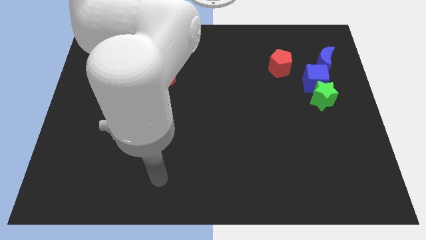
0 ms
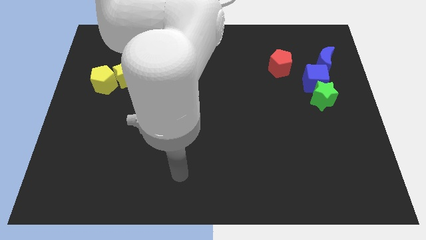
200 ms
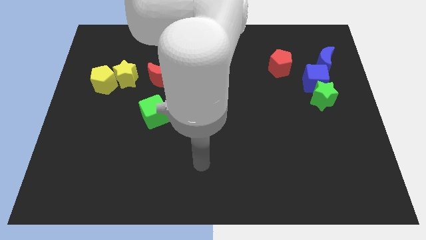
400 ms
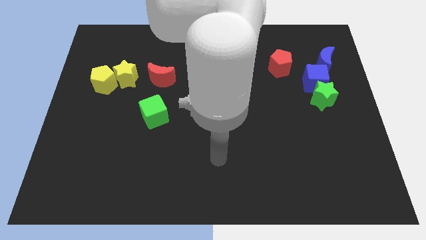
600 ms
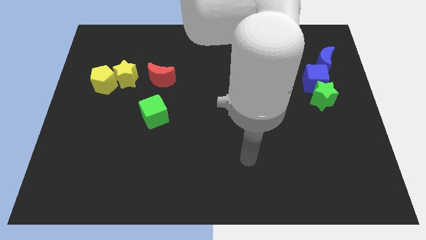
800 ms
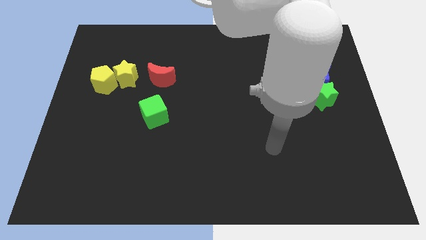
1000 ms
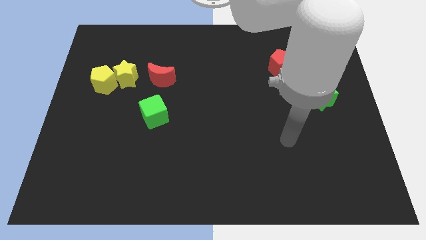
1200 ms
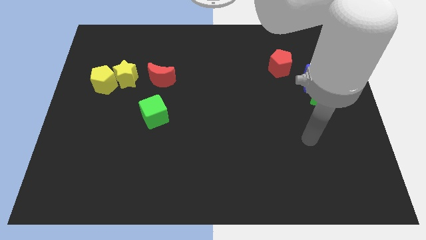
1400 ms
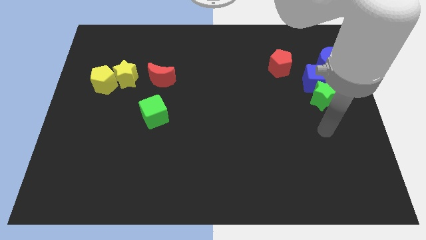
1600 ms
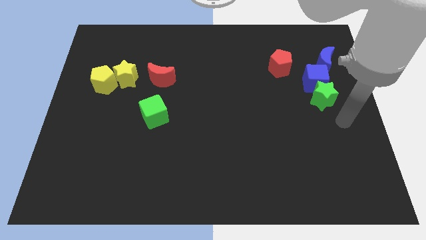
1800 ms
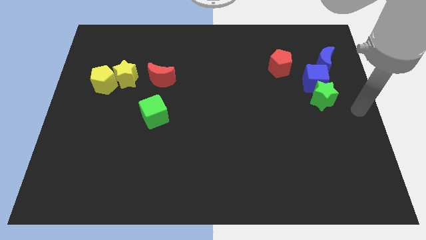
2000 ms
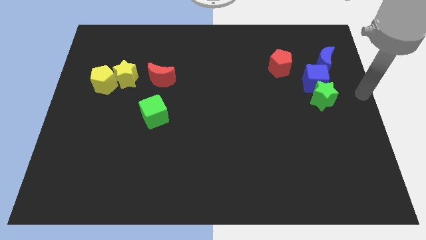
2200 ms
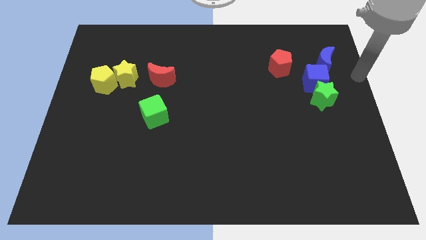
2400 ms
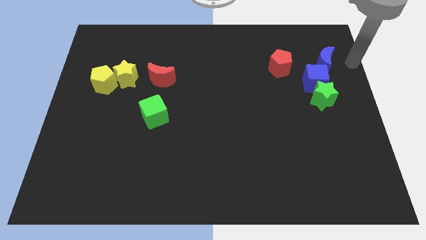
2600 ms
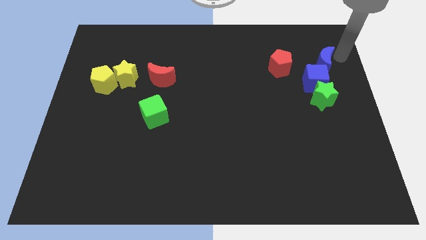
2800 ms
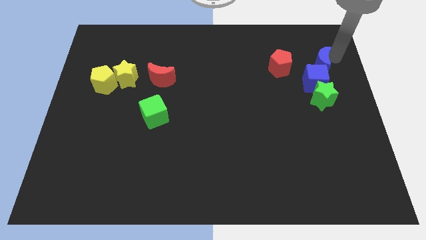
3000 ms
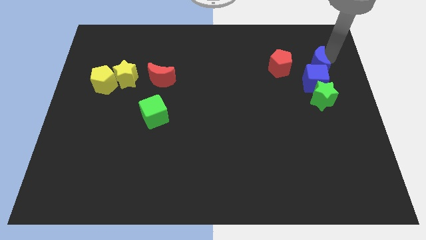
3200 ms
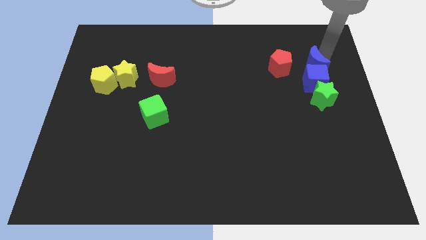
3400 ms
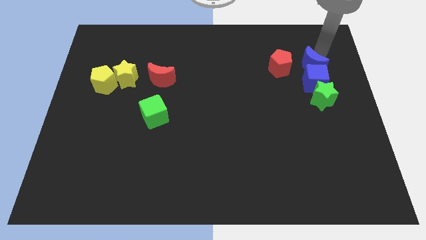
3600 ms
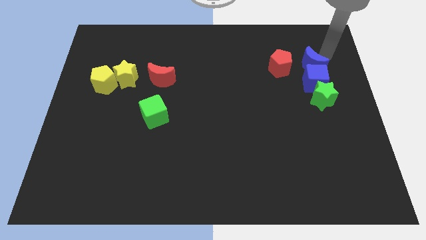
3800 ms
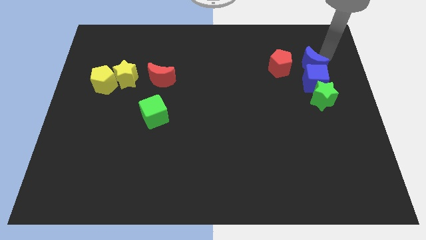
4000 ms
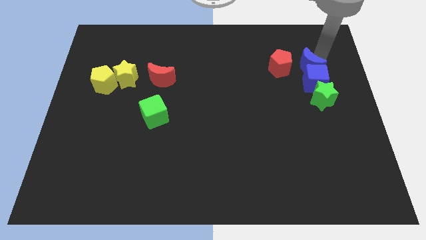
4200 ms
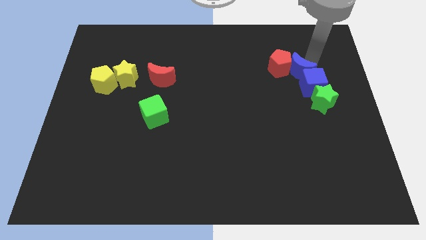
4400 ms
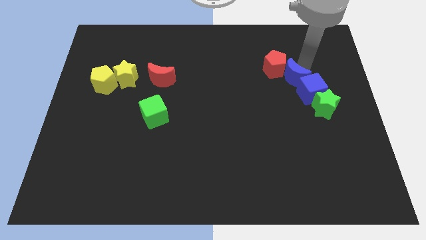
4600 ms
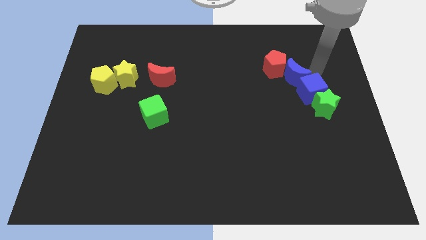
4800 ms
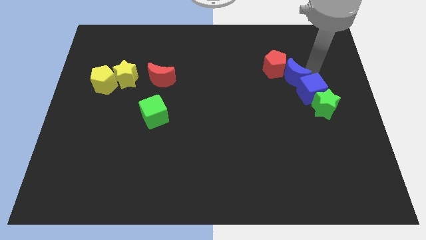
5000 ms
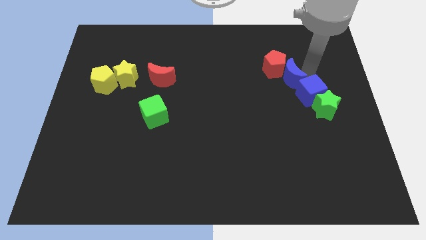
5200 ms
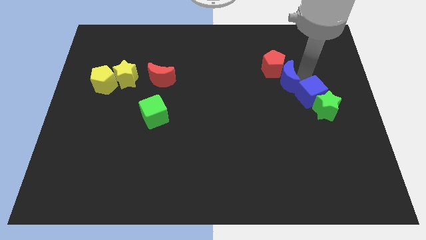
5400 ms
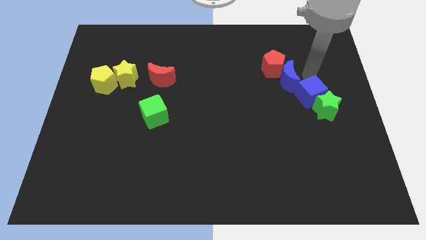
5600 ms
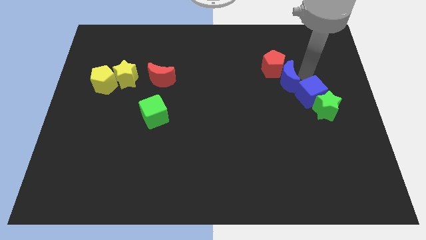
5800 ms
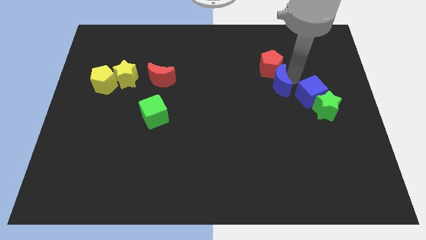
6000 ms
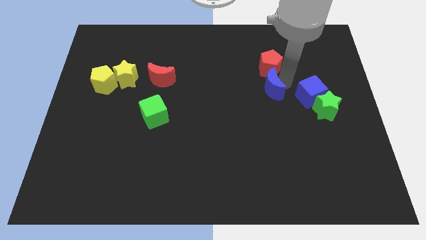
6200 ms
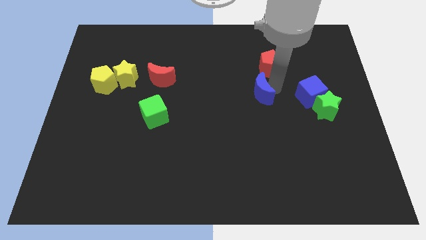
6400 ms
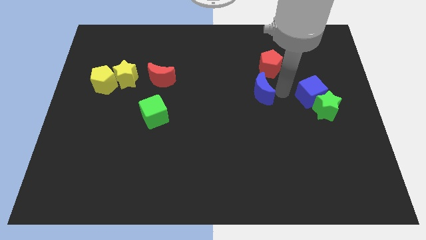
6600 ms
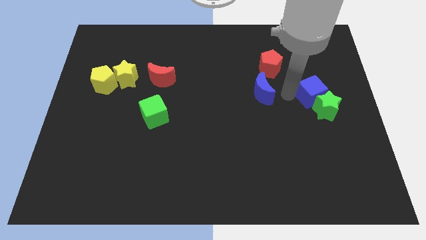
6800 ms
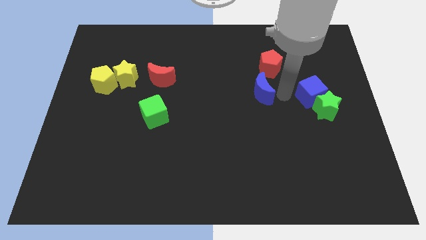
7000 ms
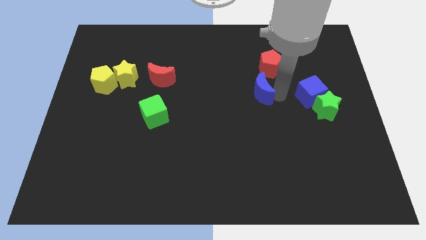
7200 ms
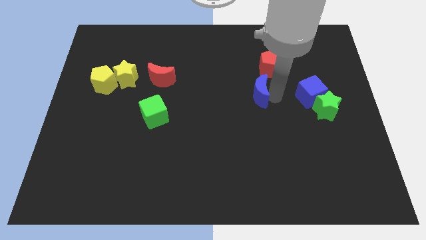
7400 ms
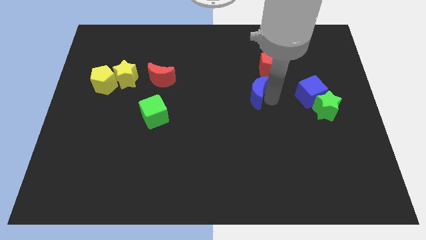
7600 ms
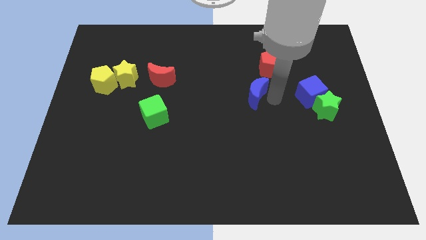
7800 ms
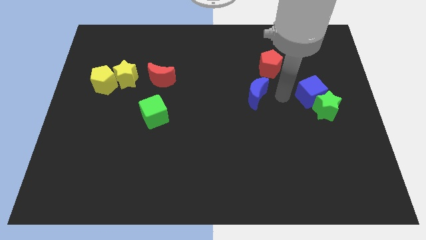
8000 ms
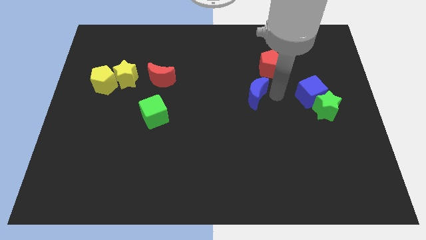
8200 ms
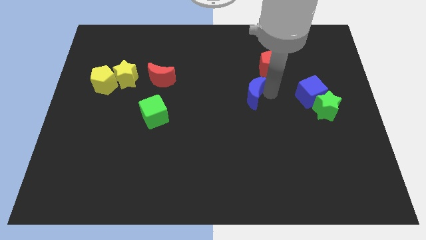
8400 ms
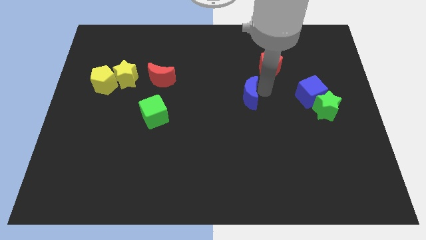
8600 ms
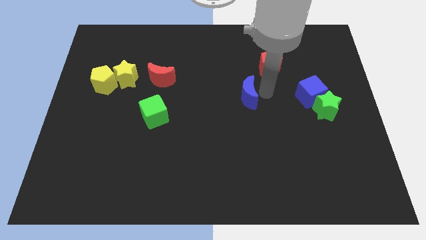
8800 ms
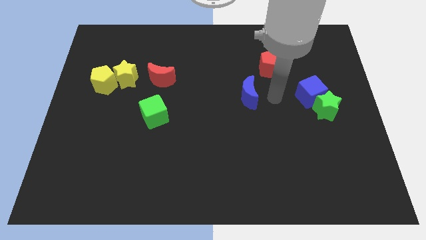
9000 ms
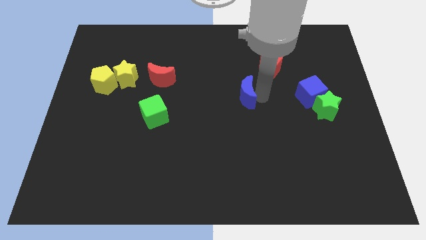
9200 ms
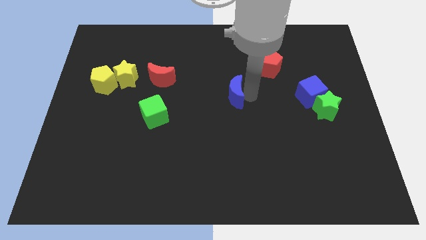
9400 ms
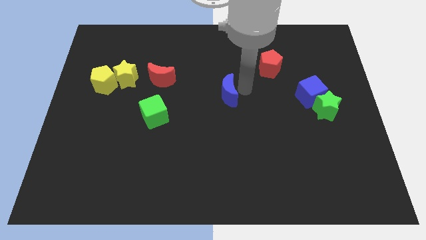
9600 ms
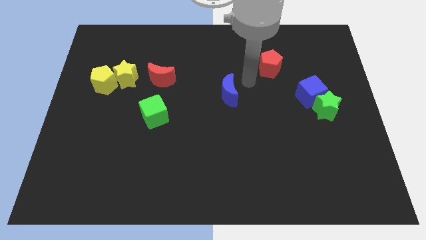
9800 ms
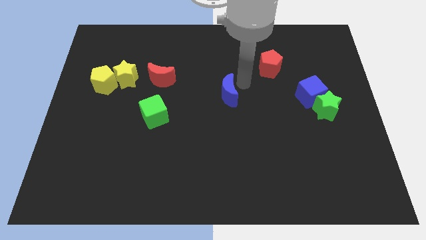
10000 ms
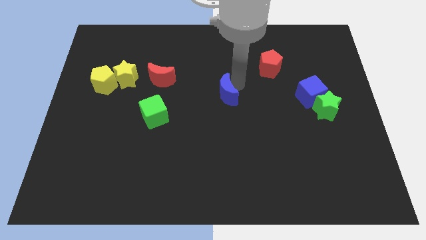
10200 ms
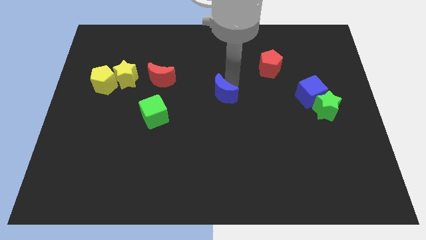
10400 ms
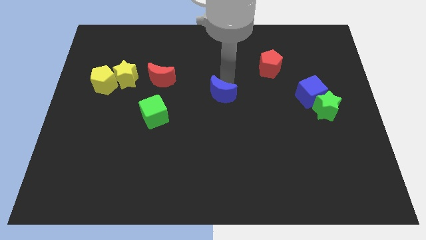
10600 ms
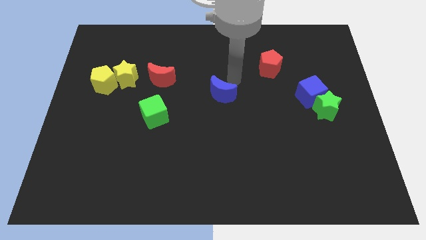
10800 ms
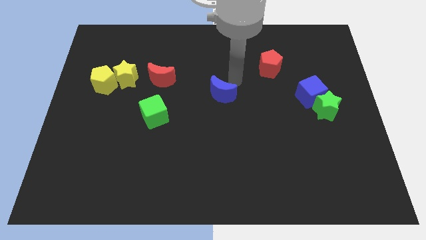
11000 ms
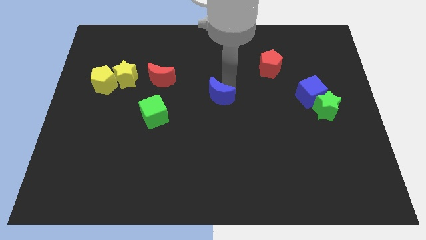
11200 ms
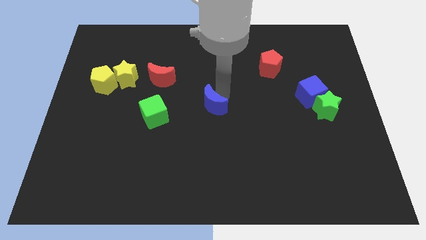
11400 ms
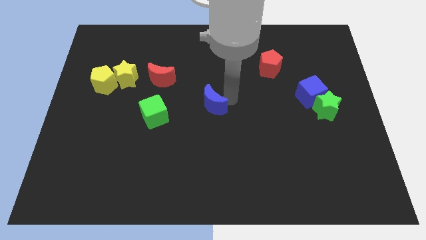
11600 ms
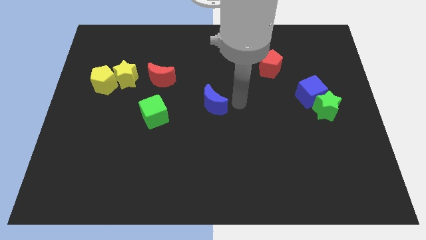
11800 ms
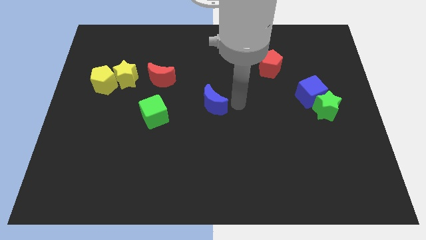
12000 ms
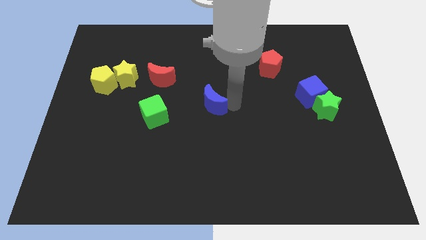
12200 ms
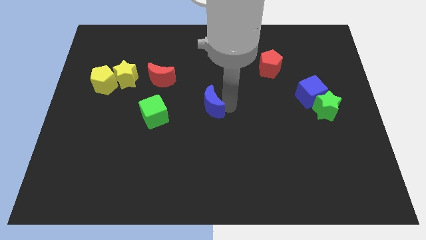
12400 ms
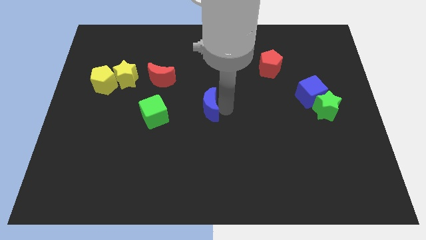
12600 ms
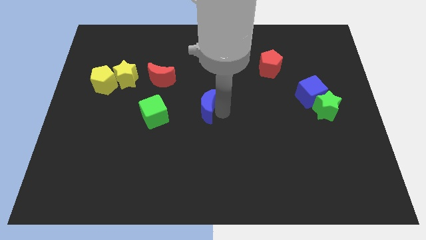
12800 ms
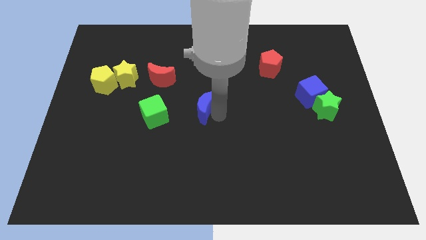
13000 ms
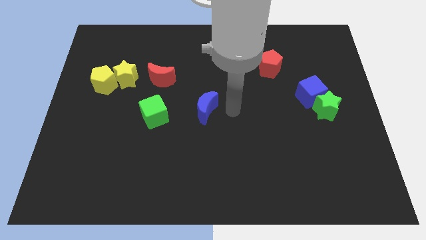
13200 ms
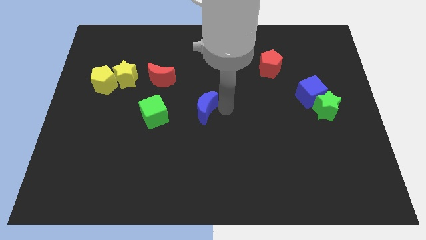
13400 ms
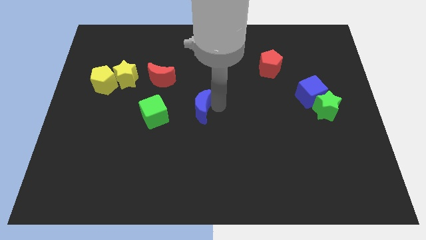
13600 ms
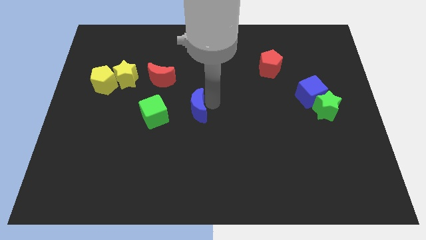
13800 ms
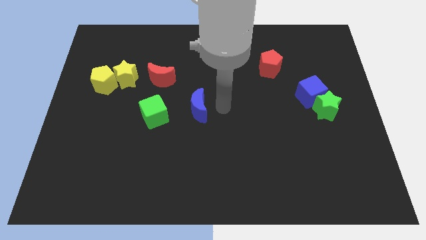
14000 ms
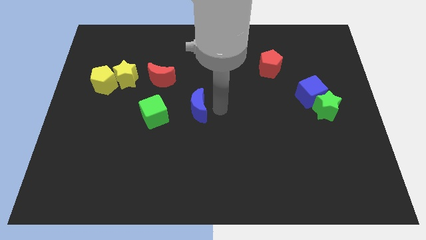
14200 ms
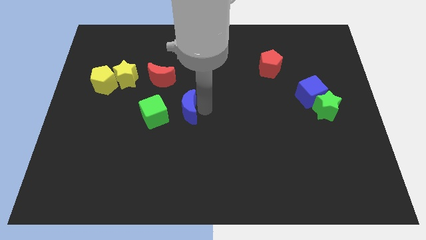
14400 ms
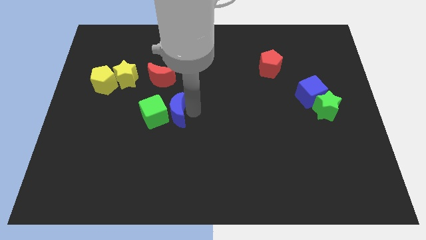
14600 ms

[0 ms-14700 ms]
slide the blue moon next to the green cube

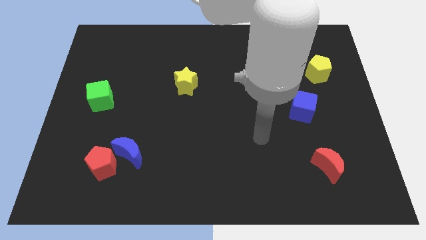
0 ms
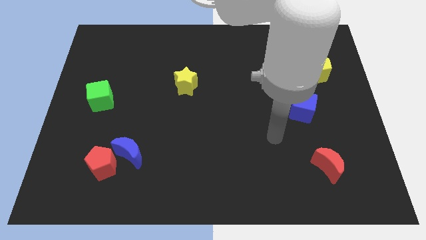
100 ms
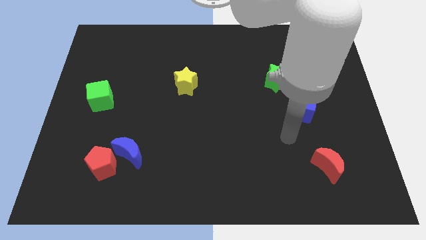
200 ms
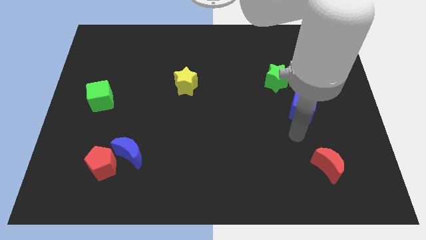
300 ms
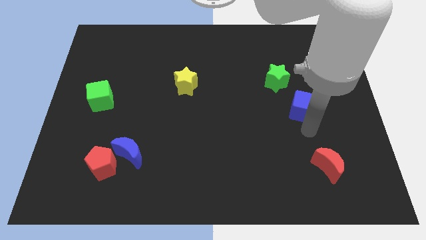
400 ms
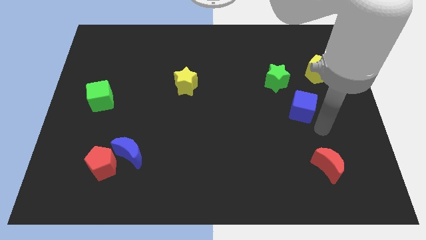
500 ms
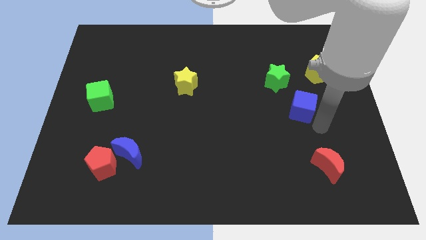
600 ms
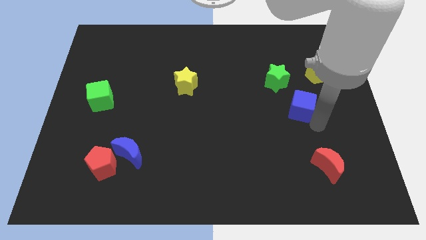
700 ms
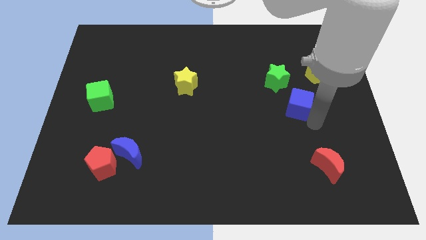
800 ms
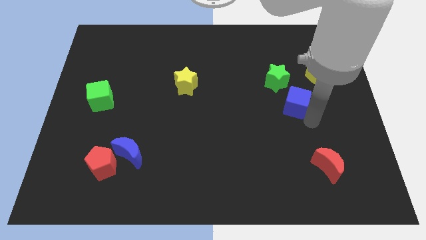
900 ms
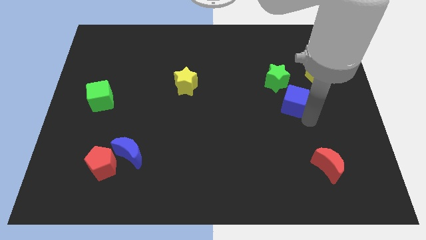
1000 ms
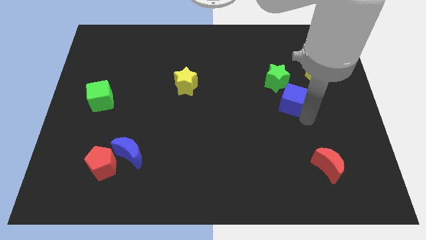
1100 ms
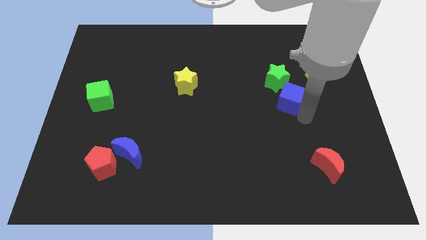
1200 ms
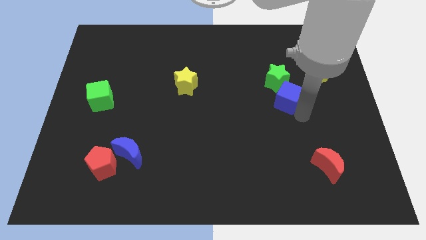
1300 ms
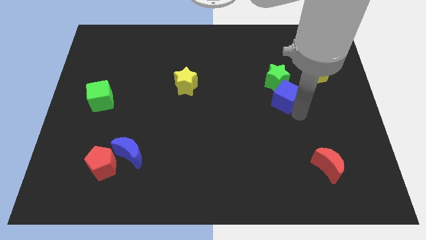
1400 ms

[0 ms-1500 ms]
slide the blue cube next to the green star
